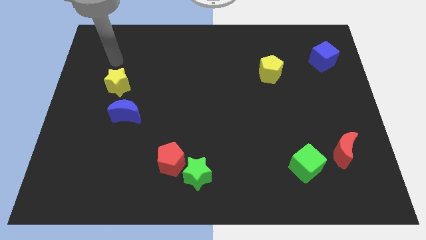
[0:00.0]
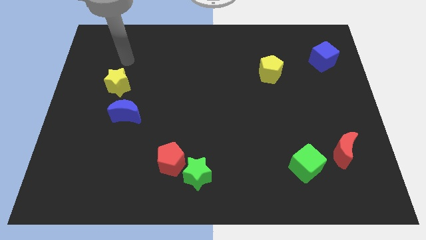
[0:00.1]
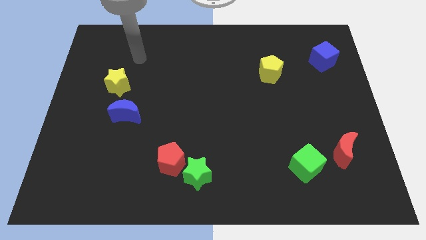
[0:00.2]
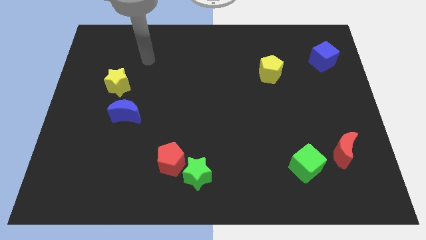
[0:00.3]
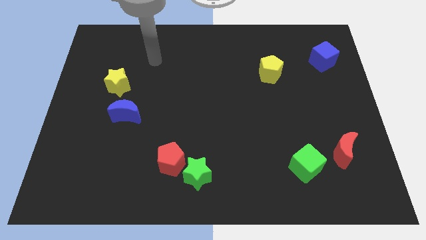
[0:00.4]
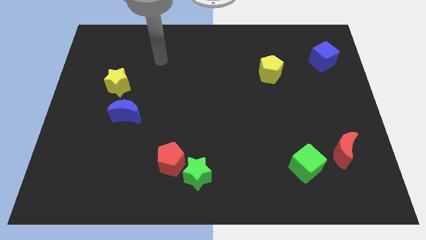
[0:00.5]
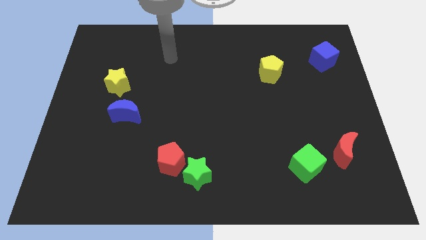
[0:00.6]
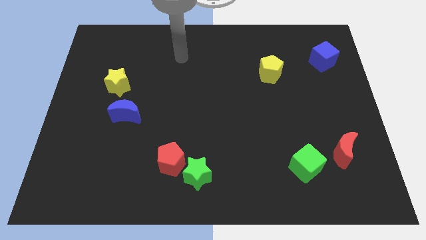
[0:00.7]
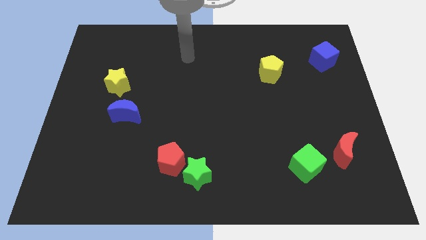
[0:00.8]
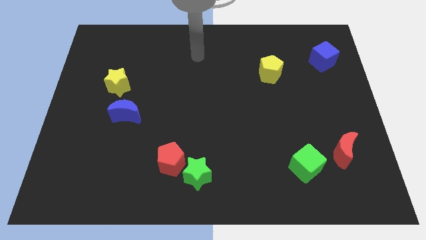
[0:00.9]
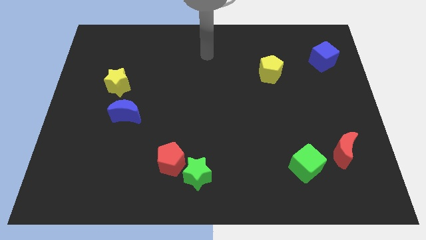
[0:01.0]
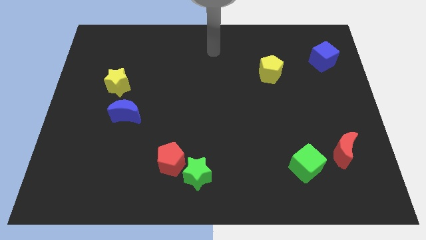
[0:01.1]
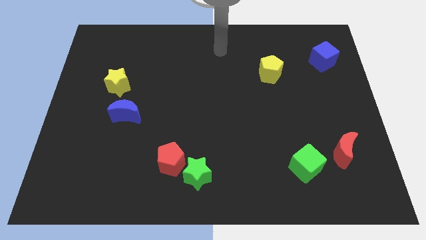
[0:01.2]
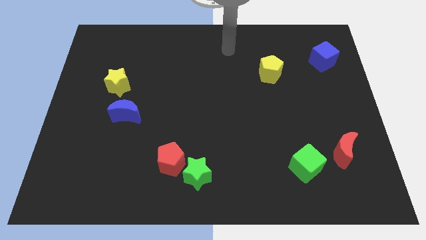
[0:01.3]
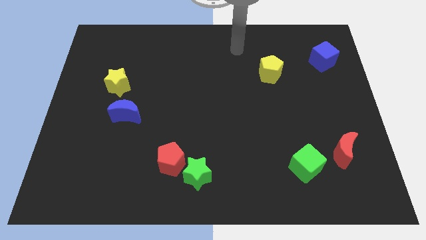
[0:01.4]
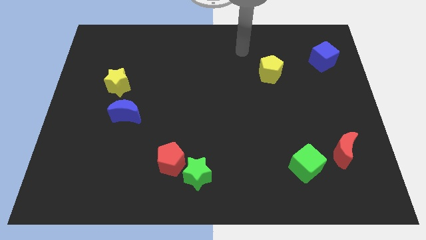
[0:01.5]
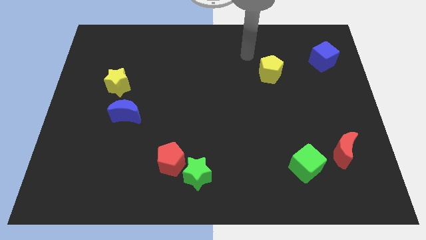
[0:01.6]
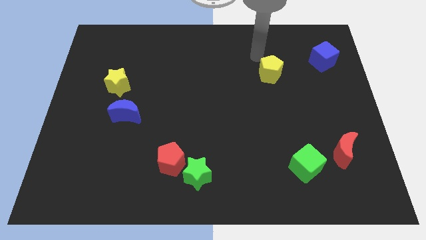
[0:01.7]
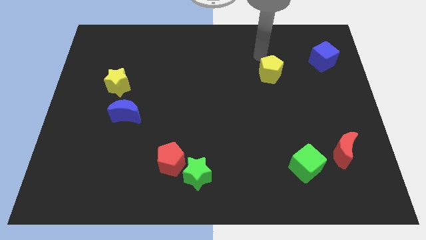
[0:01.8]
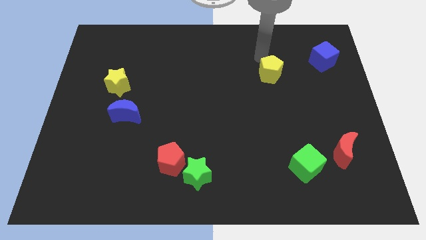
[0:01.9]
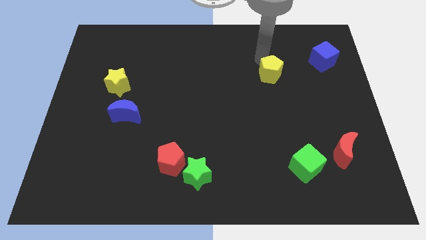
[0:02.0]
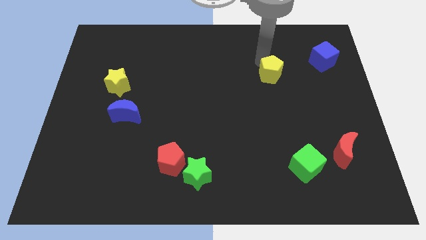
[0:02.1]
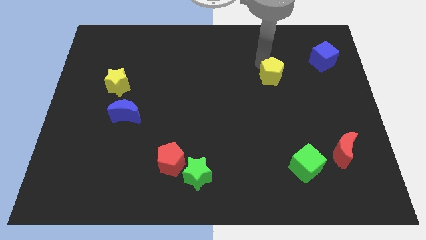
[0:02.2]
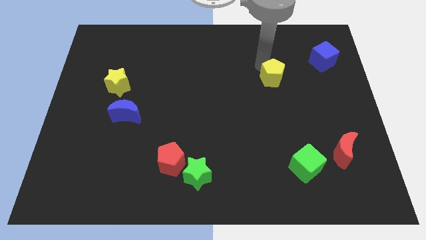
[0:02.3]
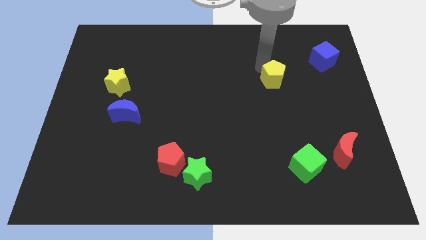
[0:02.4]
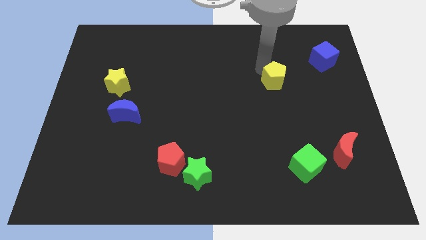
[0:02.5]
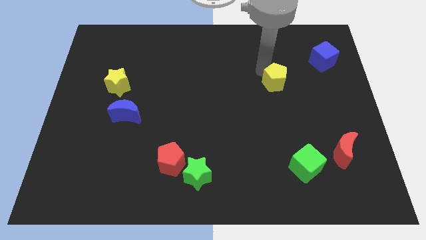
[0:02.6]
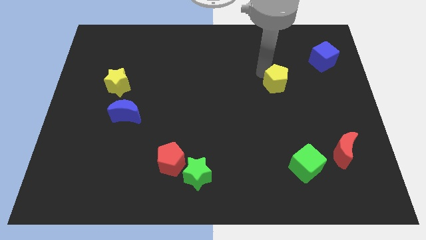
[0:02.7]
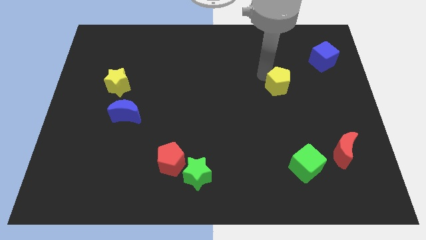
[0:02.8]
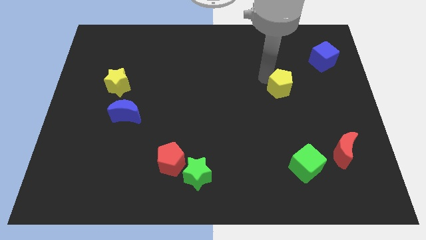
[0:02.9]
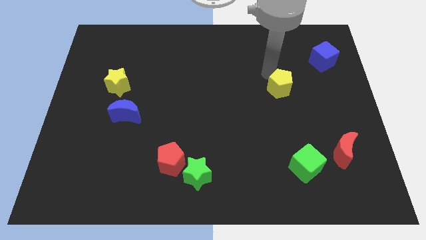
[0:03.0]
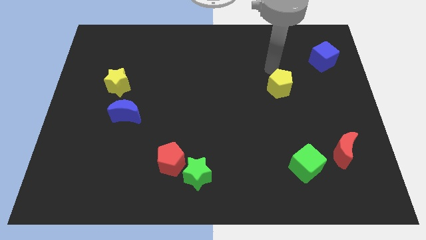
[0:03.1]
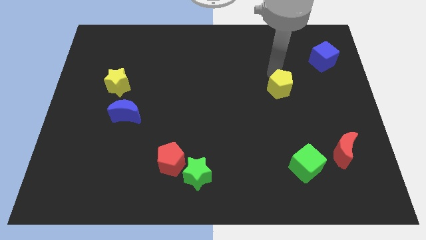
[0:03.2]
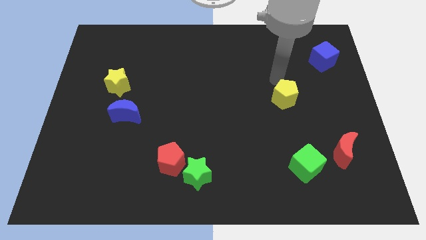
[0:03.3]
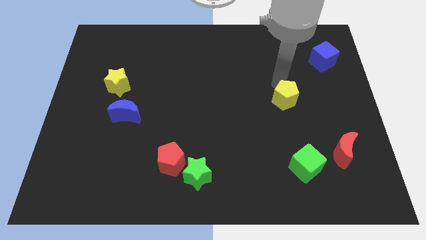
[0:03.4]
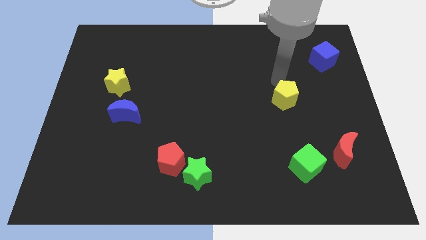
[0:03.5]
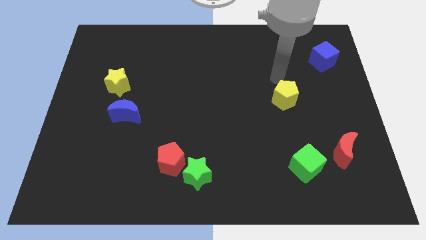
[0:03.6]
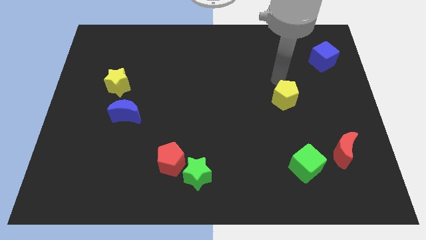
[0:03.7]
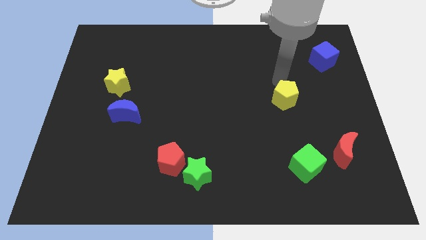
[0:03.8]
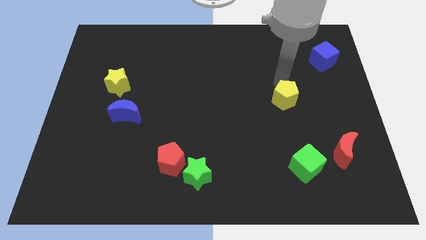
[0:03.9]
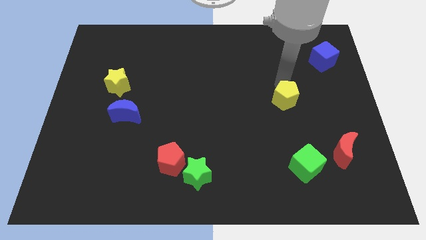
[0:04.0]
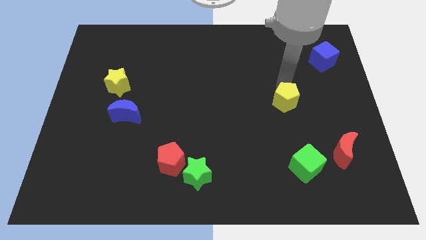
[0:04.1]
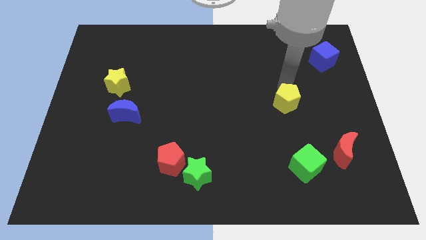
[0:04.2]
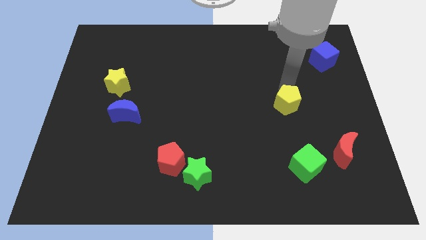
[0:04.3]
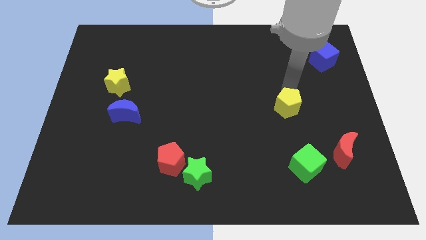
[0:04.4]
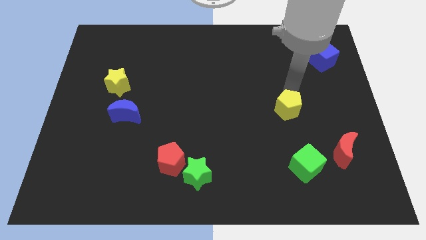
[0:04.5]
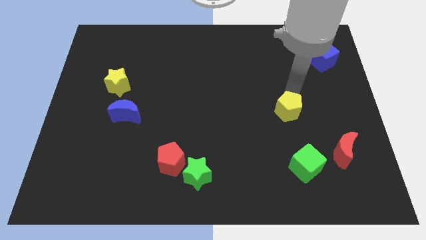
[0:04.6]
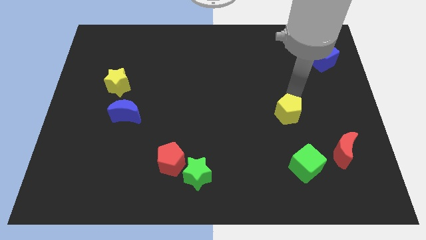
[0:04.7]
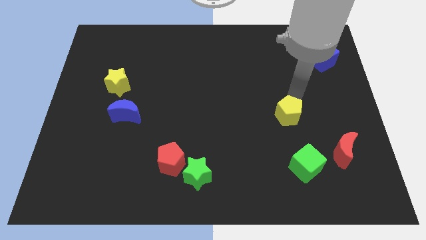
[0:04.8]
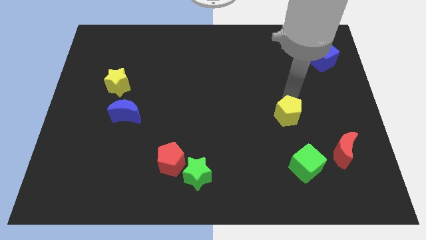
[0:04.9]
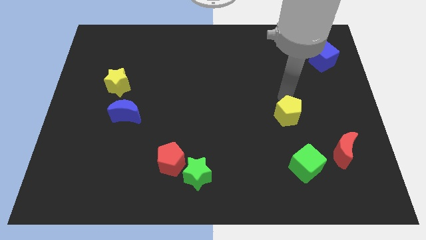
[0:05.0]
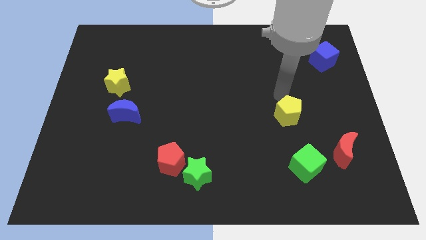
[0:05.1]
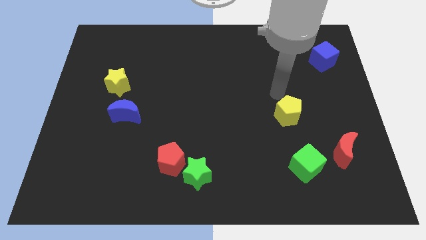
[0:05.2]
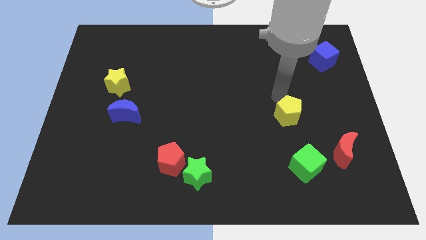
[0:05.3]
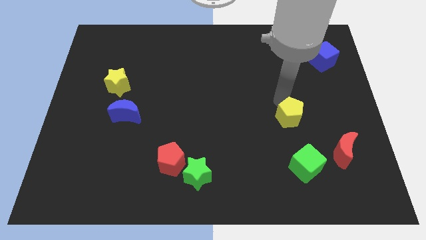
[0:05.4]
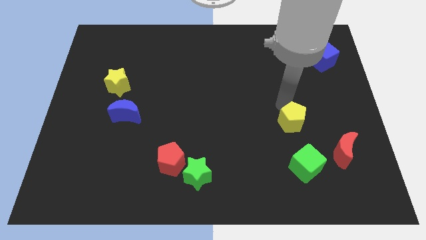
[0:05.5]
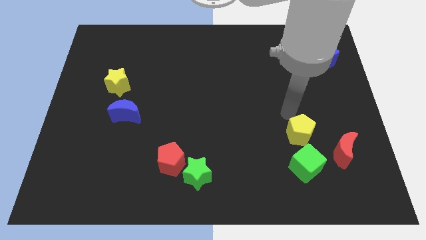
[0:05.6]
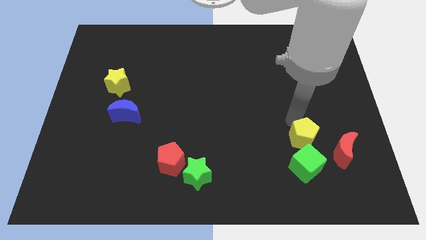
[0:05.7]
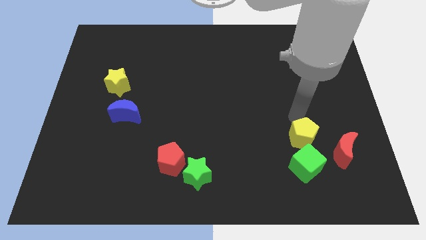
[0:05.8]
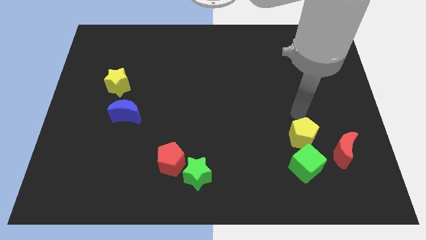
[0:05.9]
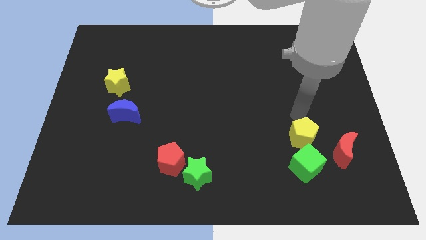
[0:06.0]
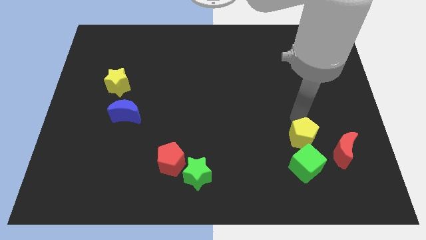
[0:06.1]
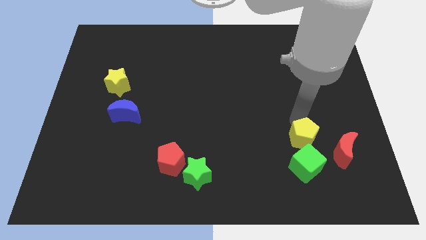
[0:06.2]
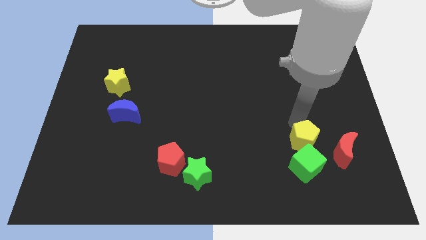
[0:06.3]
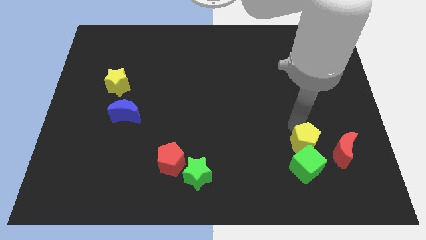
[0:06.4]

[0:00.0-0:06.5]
slide the yellow pentagon to the green cube

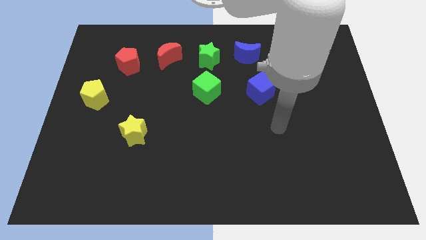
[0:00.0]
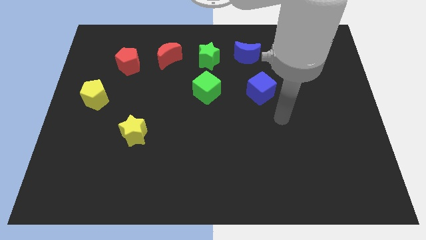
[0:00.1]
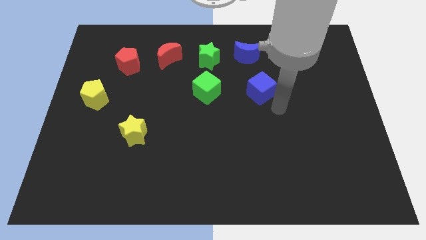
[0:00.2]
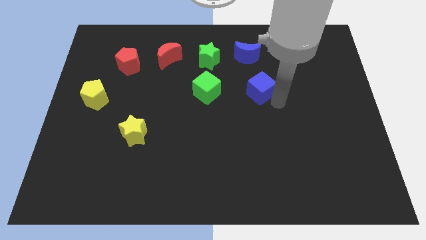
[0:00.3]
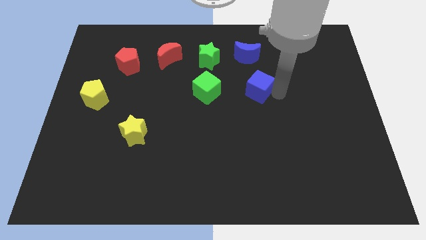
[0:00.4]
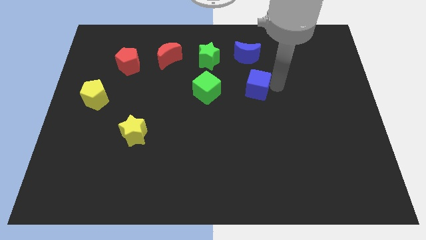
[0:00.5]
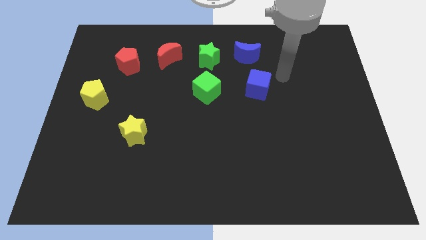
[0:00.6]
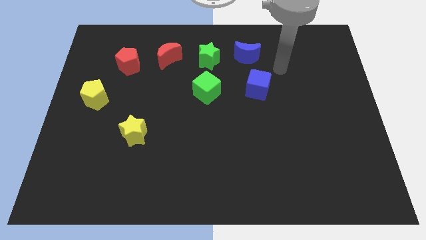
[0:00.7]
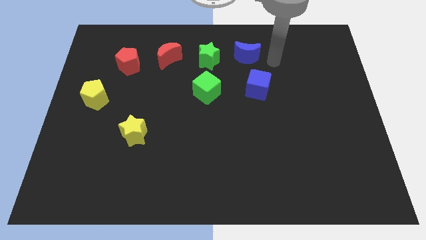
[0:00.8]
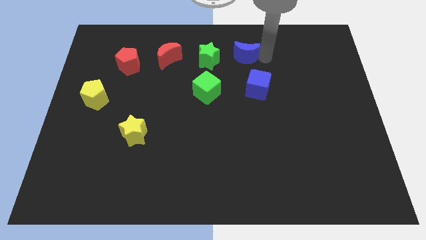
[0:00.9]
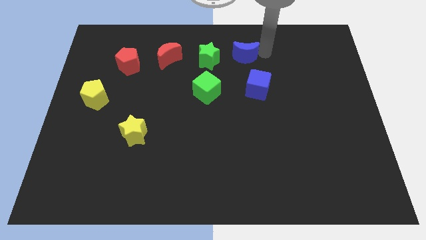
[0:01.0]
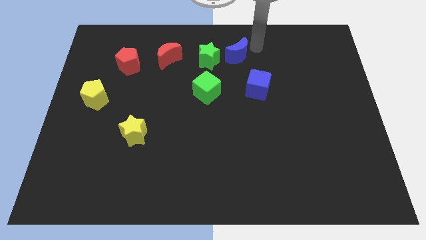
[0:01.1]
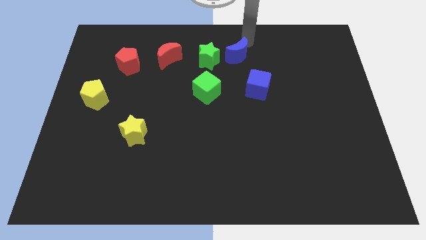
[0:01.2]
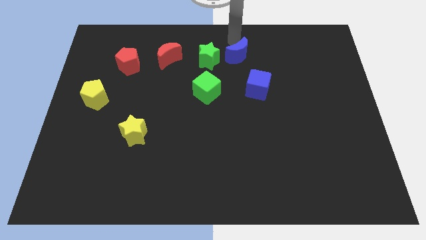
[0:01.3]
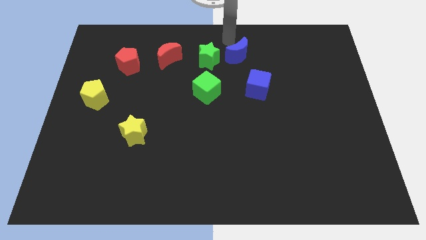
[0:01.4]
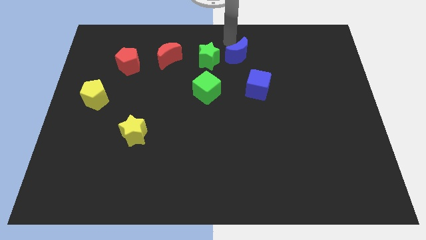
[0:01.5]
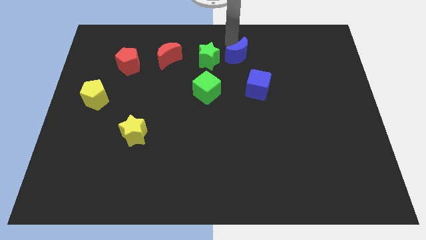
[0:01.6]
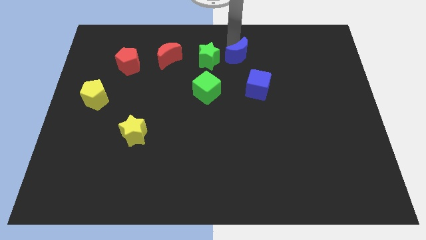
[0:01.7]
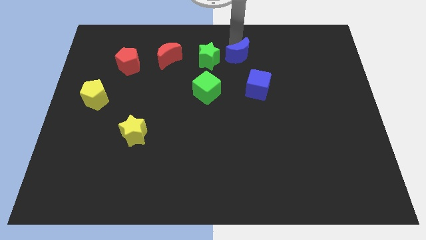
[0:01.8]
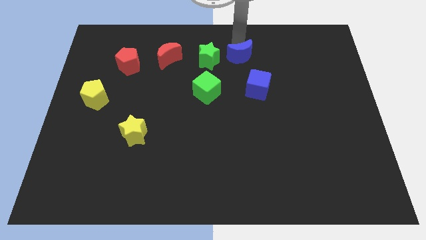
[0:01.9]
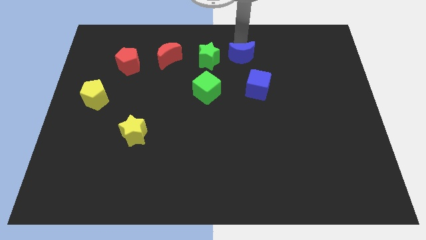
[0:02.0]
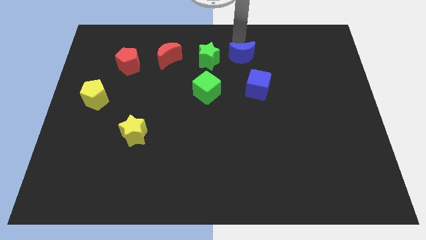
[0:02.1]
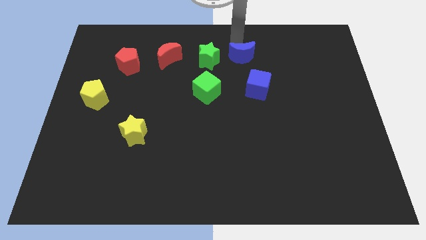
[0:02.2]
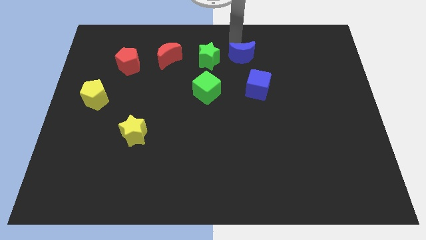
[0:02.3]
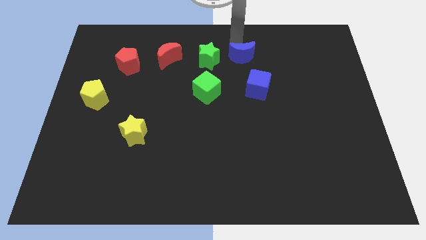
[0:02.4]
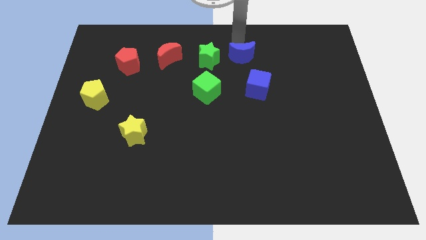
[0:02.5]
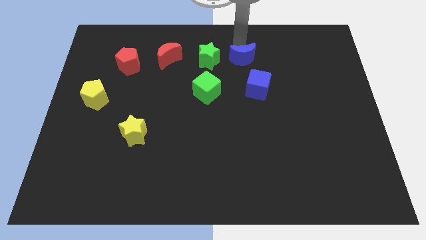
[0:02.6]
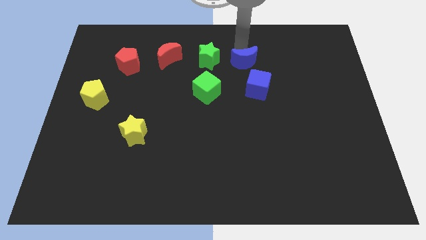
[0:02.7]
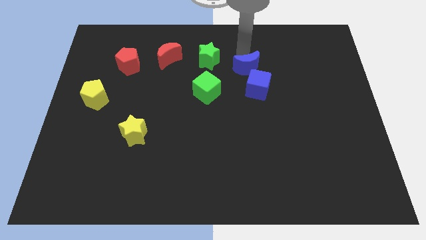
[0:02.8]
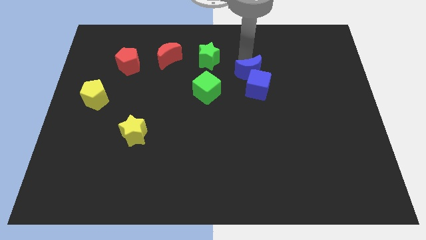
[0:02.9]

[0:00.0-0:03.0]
slide the blue moon close to the blue cube
